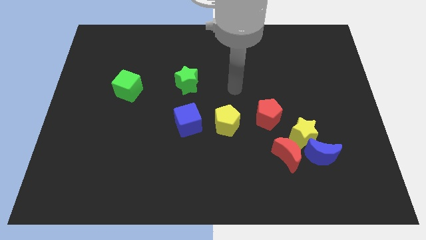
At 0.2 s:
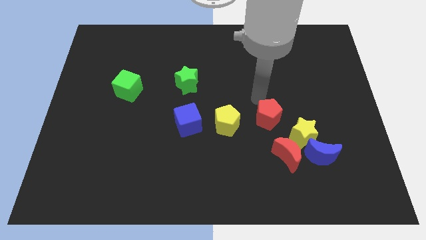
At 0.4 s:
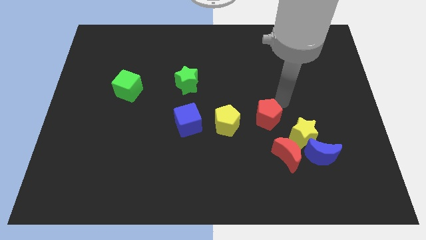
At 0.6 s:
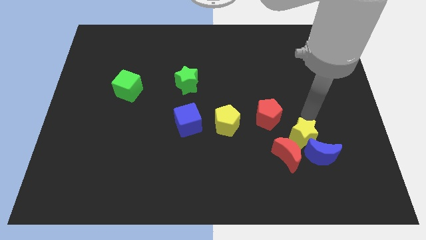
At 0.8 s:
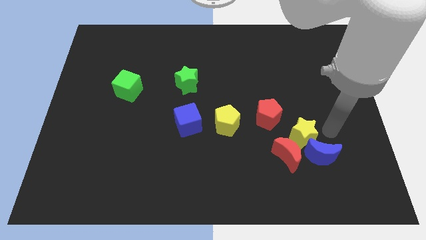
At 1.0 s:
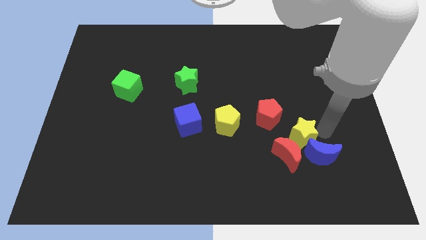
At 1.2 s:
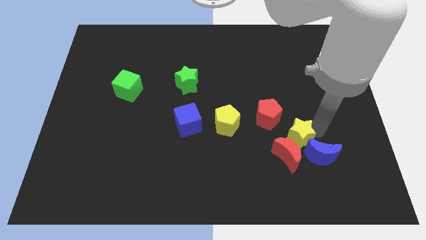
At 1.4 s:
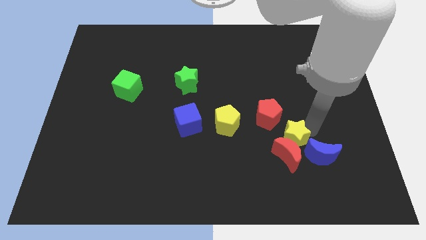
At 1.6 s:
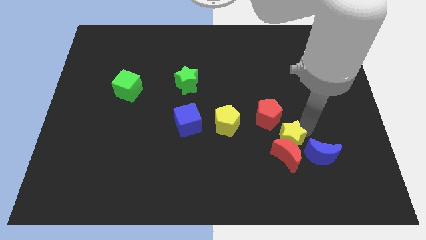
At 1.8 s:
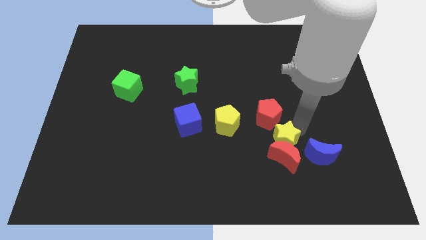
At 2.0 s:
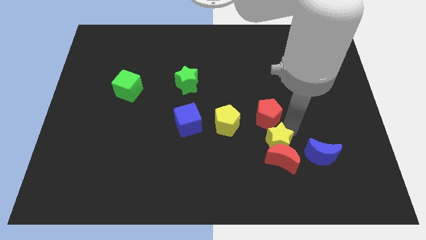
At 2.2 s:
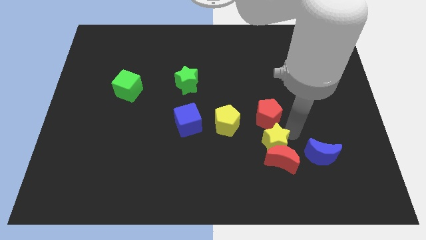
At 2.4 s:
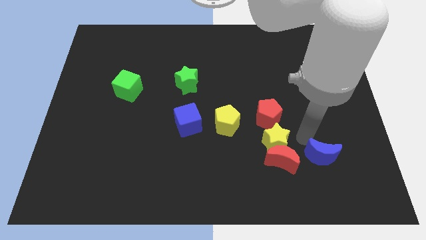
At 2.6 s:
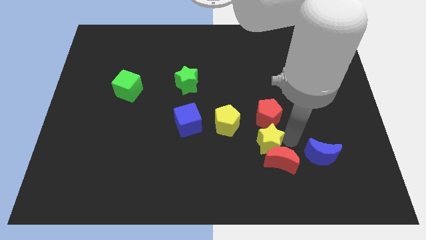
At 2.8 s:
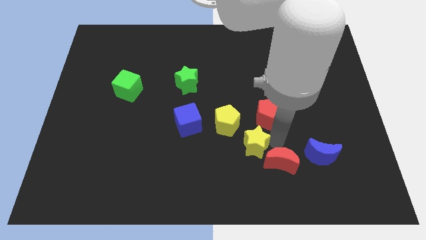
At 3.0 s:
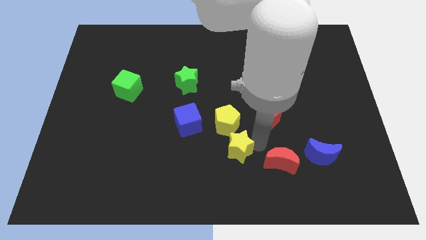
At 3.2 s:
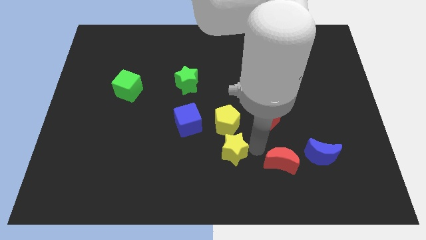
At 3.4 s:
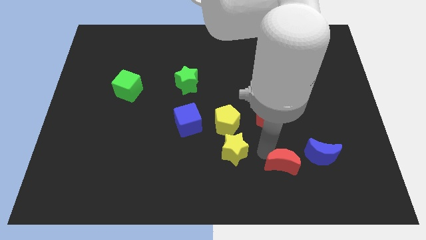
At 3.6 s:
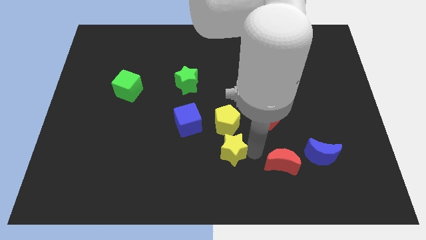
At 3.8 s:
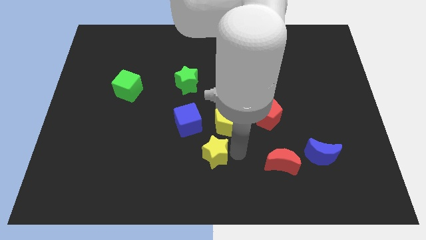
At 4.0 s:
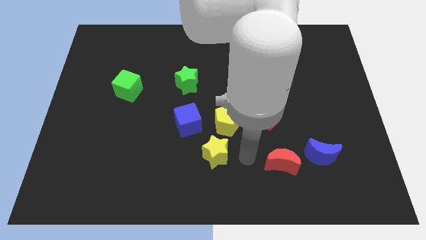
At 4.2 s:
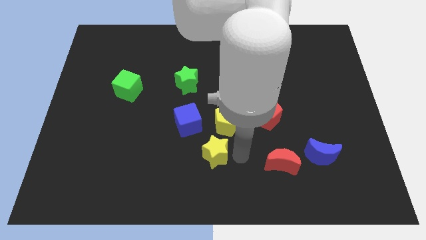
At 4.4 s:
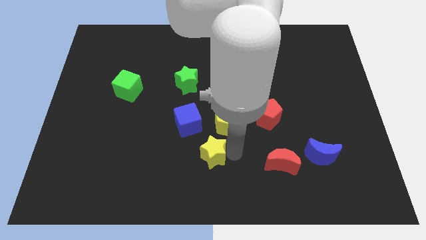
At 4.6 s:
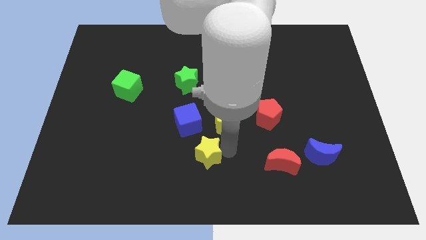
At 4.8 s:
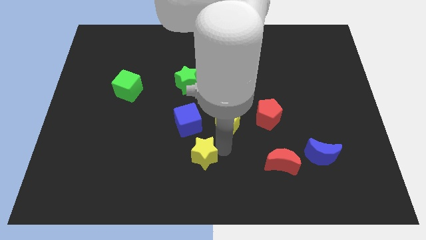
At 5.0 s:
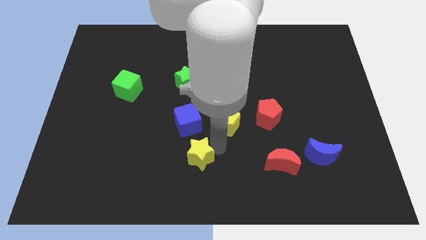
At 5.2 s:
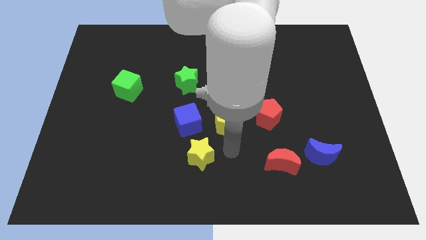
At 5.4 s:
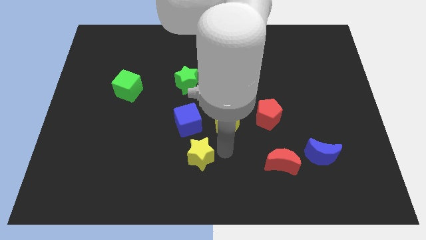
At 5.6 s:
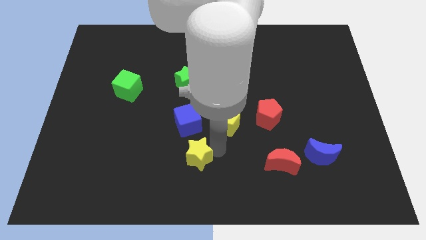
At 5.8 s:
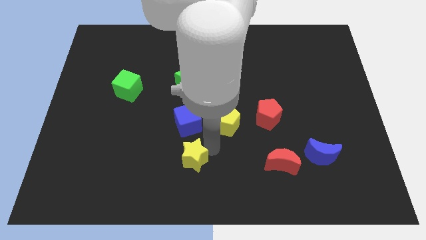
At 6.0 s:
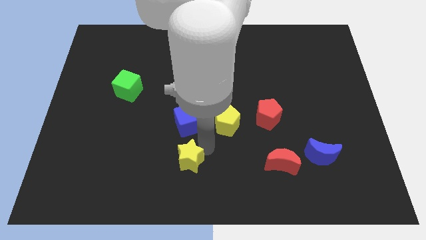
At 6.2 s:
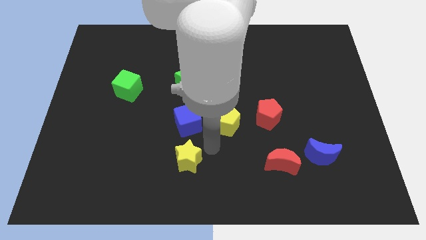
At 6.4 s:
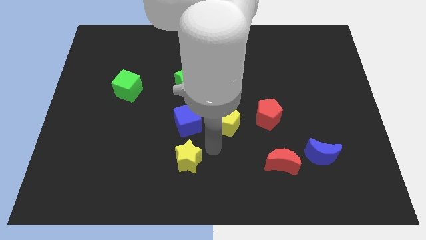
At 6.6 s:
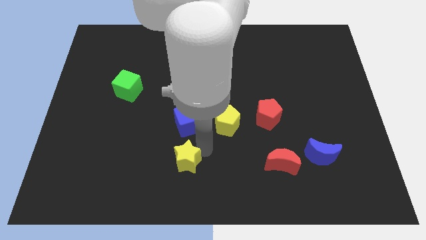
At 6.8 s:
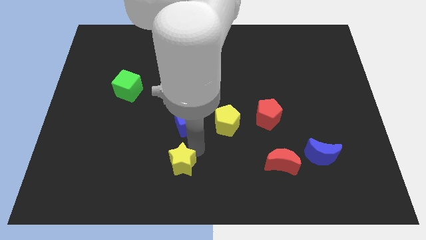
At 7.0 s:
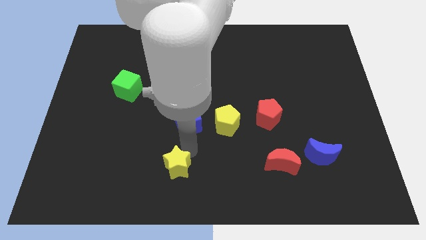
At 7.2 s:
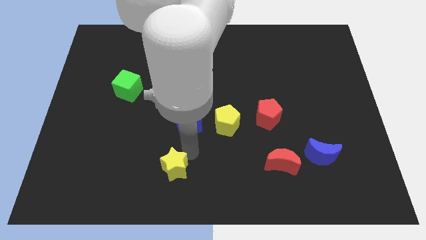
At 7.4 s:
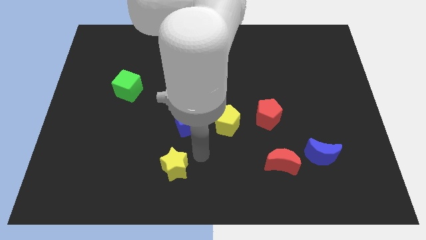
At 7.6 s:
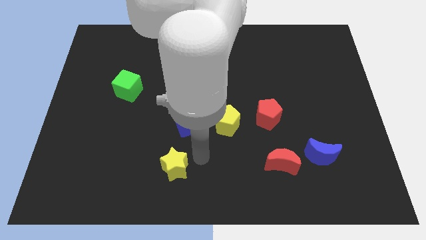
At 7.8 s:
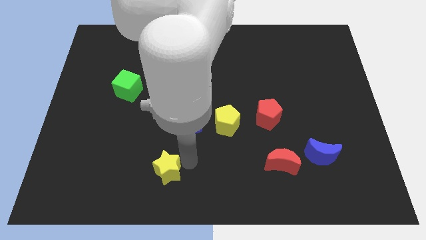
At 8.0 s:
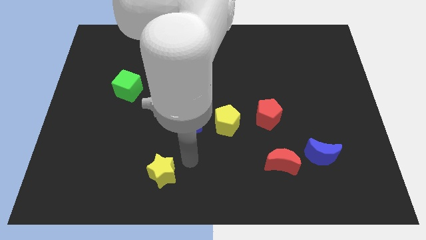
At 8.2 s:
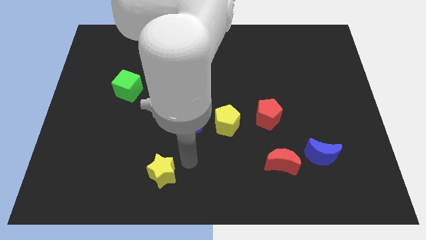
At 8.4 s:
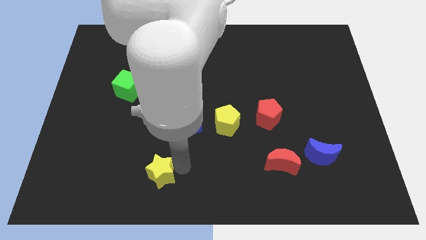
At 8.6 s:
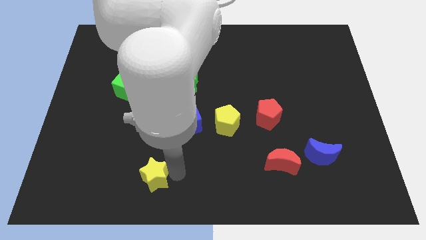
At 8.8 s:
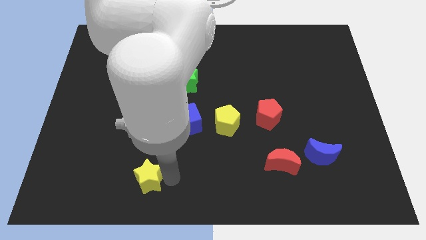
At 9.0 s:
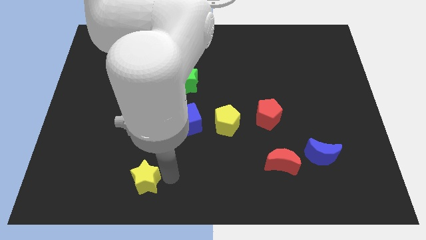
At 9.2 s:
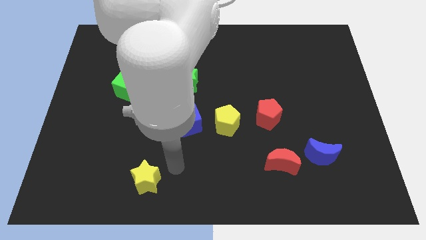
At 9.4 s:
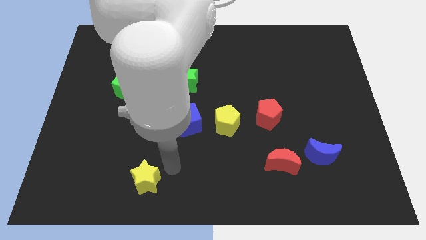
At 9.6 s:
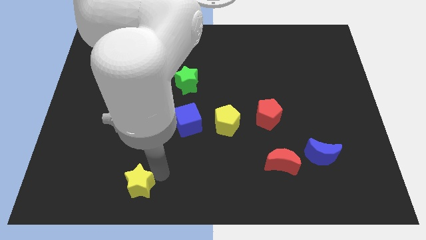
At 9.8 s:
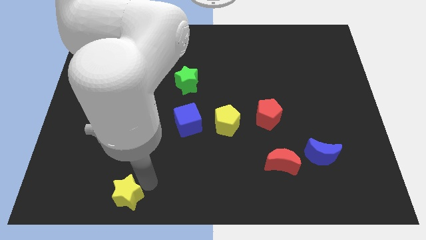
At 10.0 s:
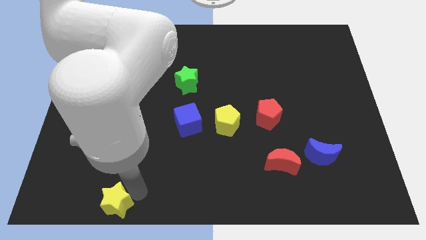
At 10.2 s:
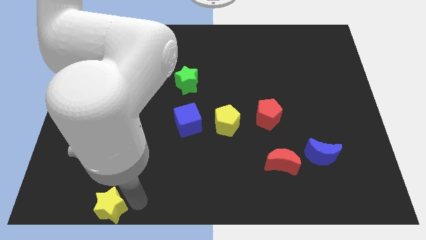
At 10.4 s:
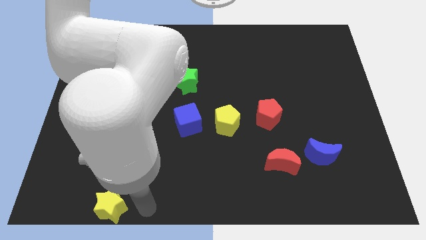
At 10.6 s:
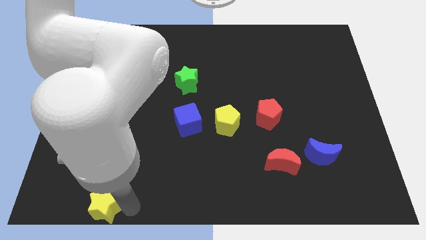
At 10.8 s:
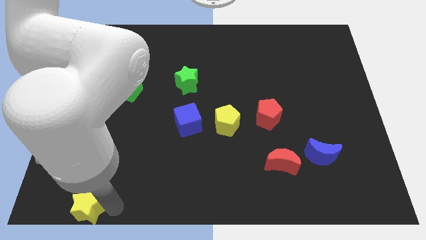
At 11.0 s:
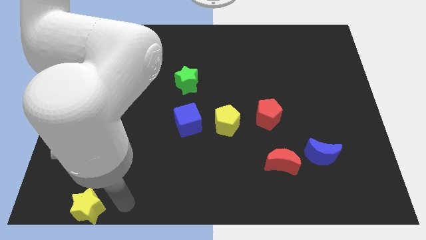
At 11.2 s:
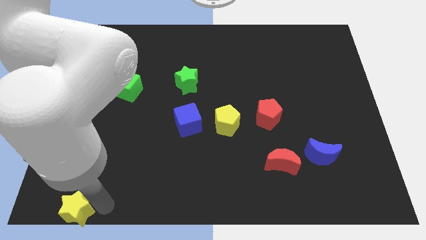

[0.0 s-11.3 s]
slide the yellow star to the bottom left of the board
